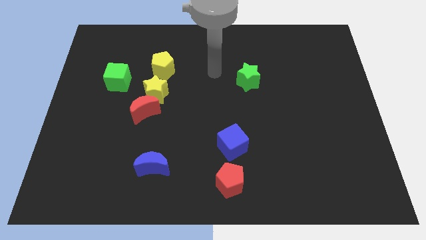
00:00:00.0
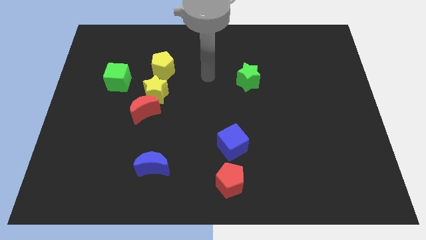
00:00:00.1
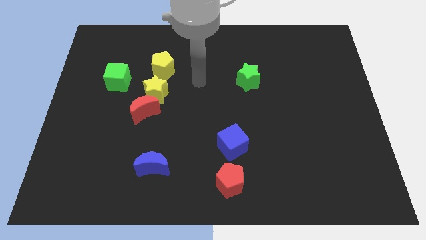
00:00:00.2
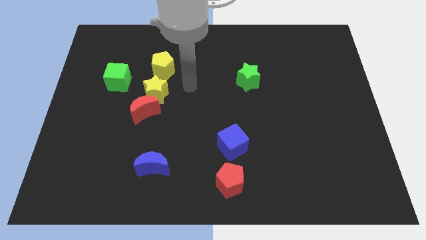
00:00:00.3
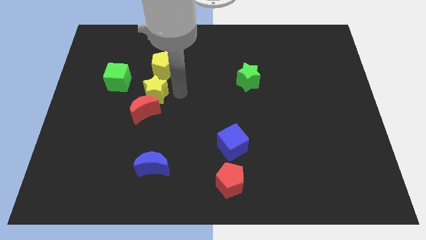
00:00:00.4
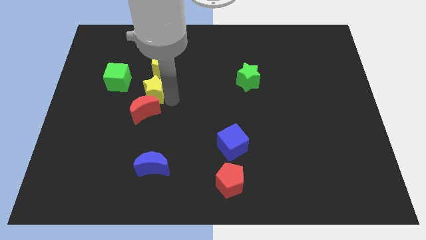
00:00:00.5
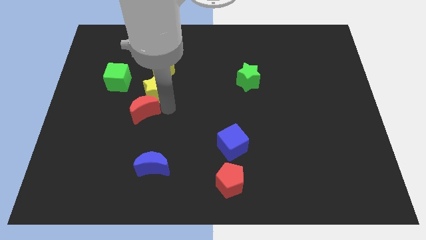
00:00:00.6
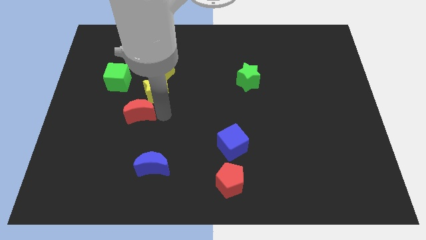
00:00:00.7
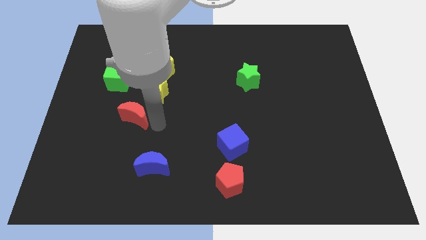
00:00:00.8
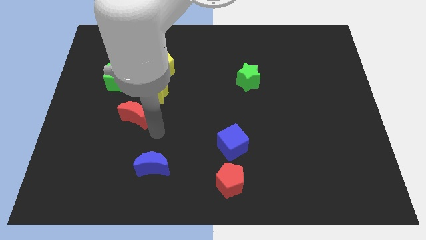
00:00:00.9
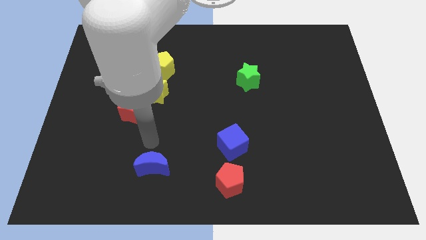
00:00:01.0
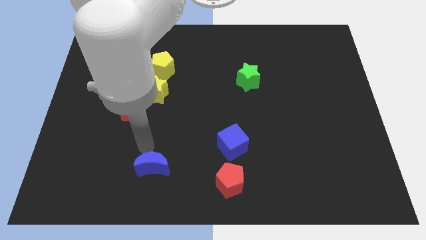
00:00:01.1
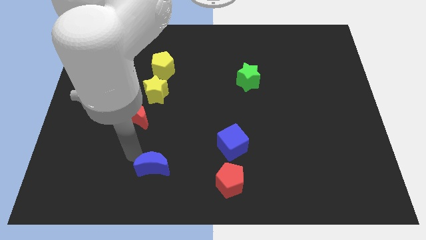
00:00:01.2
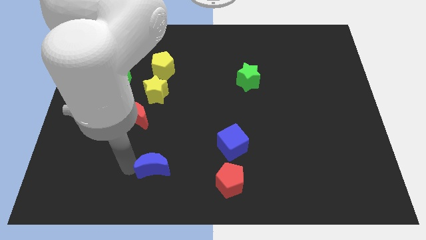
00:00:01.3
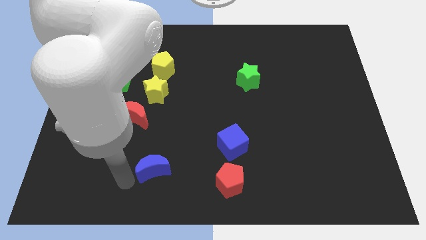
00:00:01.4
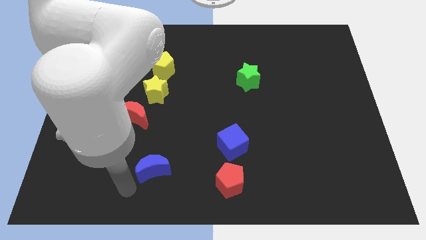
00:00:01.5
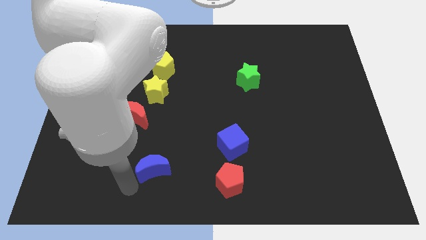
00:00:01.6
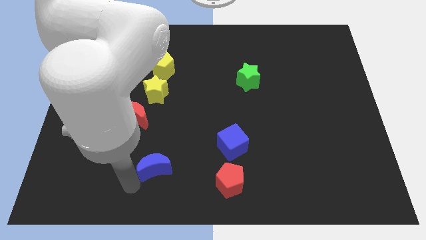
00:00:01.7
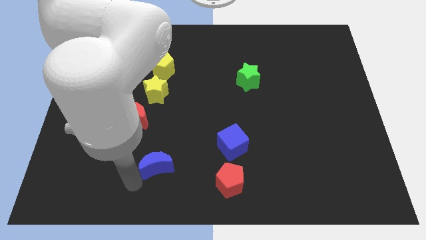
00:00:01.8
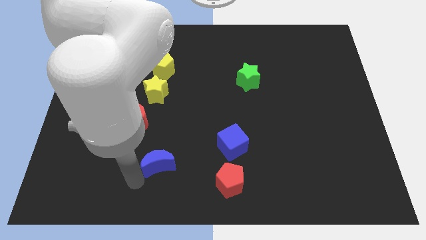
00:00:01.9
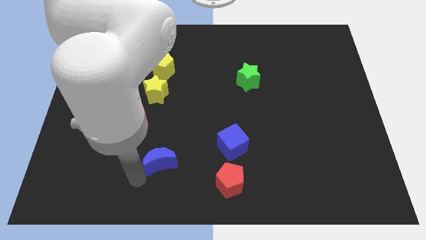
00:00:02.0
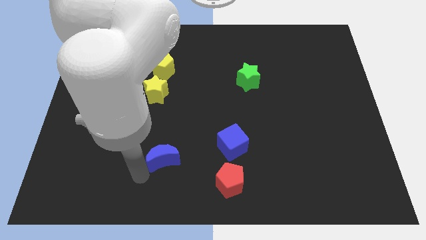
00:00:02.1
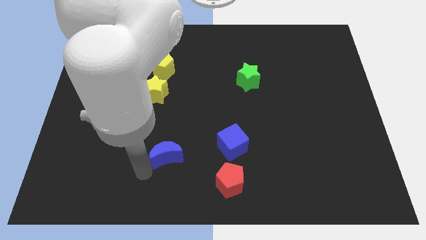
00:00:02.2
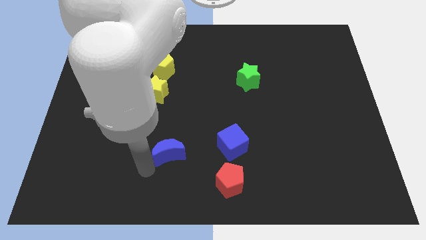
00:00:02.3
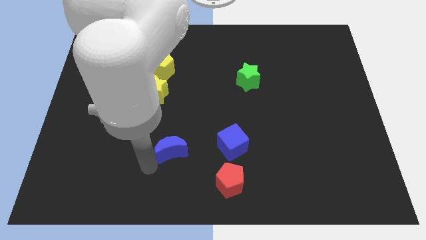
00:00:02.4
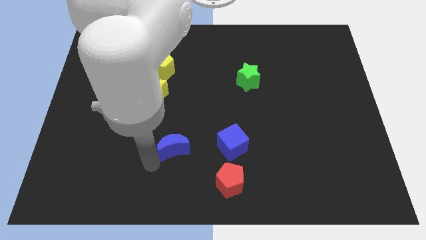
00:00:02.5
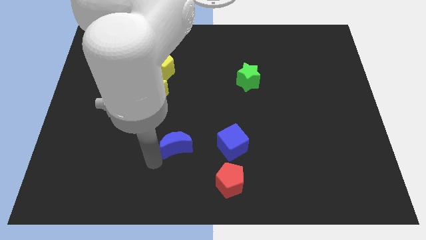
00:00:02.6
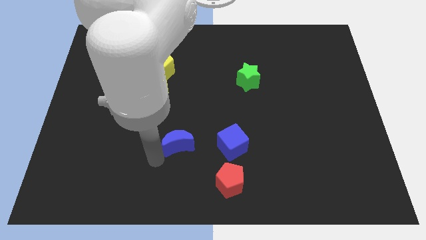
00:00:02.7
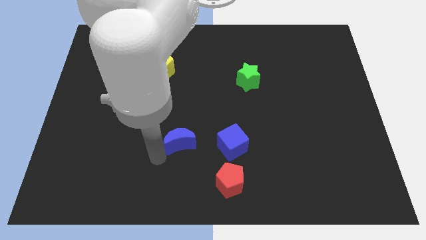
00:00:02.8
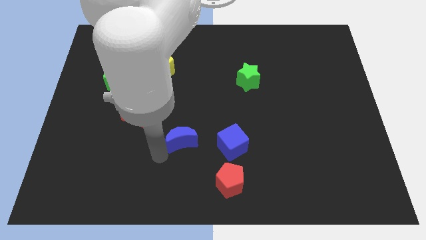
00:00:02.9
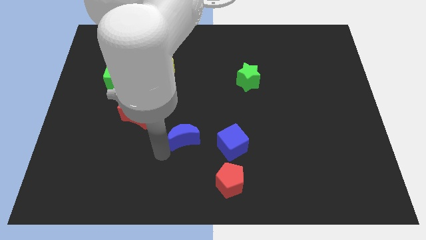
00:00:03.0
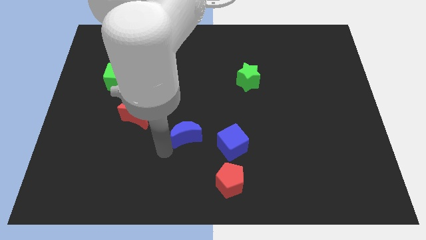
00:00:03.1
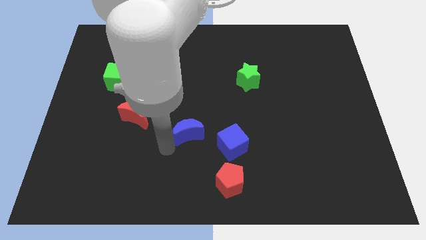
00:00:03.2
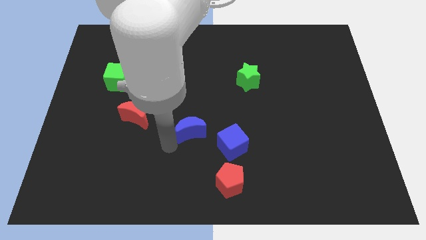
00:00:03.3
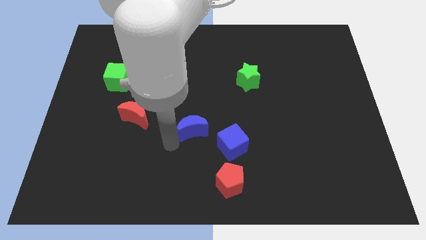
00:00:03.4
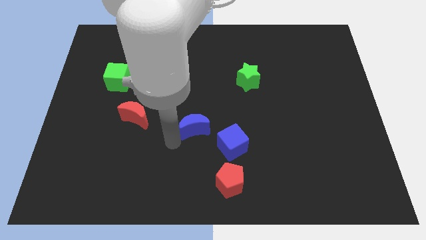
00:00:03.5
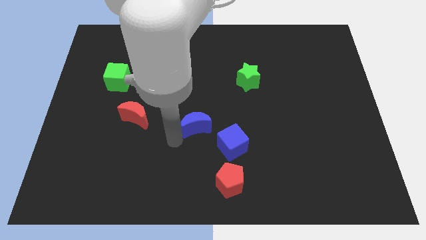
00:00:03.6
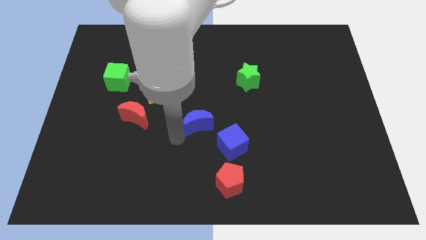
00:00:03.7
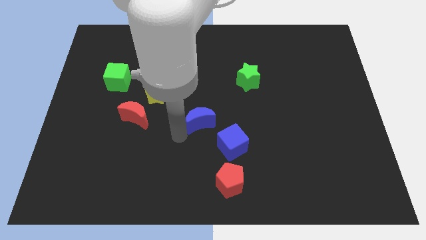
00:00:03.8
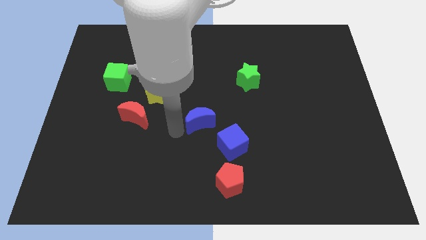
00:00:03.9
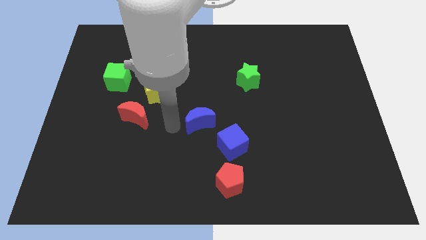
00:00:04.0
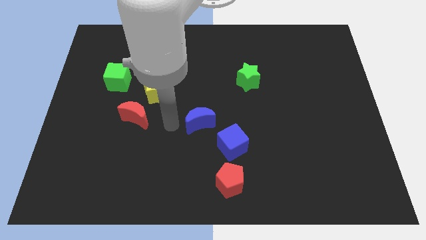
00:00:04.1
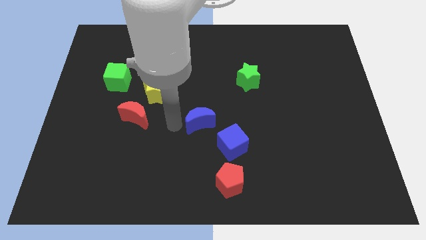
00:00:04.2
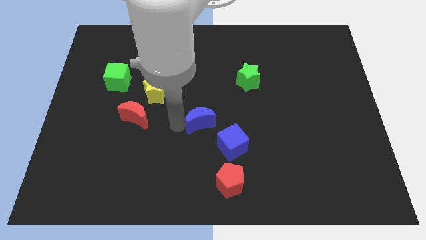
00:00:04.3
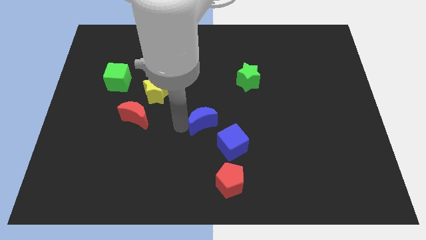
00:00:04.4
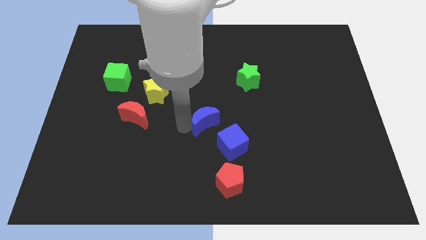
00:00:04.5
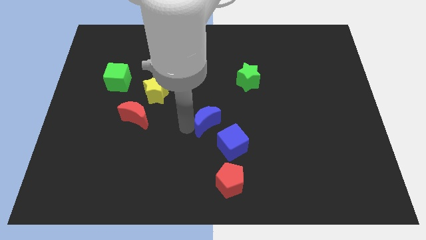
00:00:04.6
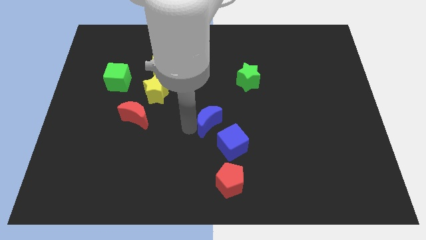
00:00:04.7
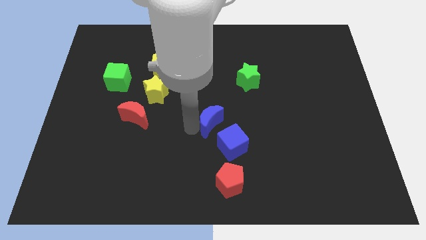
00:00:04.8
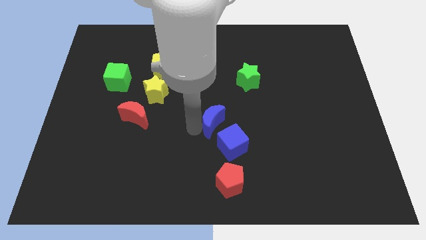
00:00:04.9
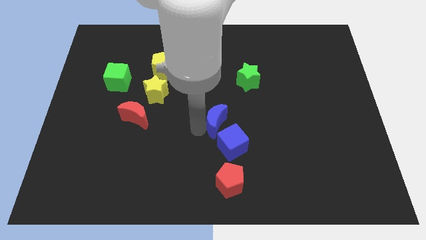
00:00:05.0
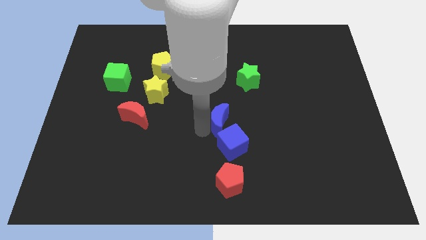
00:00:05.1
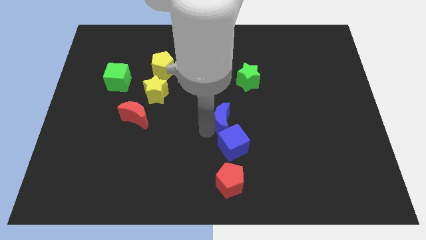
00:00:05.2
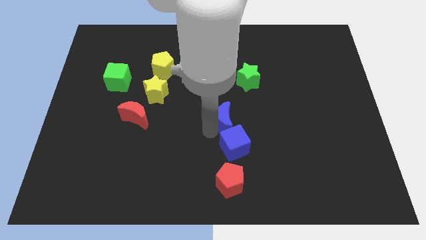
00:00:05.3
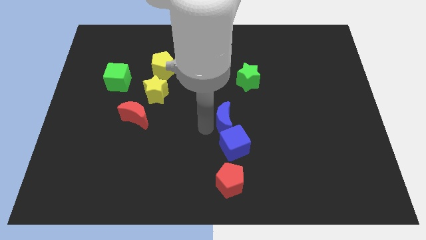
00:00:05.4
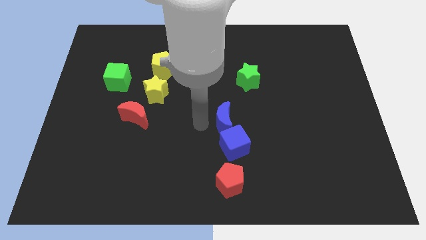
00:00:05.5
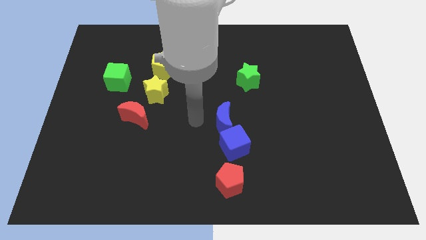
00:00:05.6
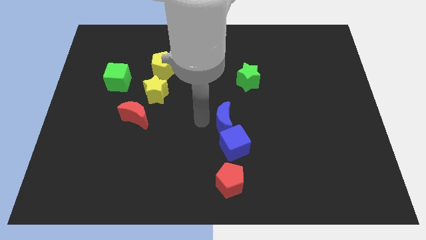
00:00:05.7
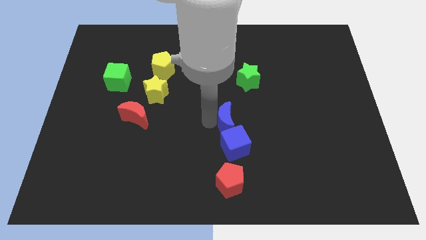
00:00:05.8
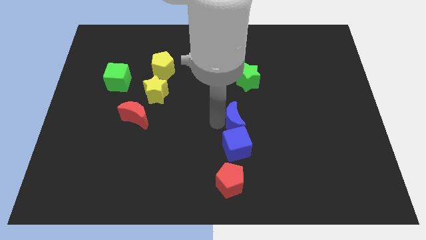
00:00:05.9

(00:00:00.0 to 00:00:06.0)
put the blue moon to the top right of the blue cube

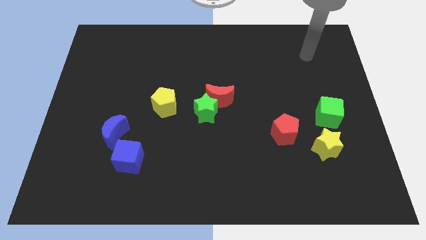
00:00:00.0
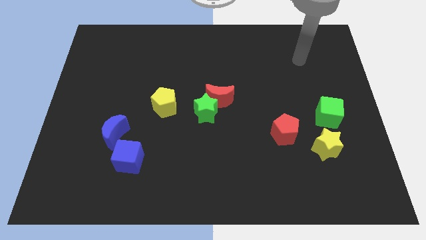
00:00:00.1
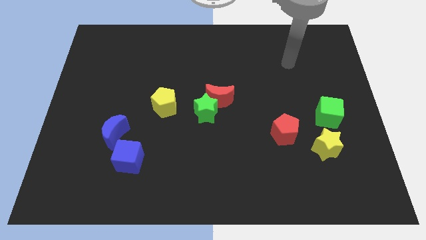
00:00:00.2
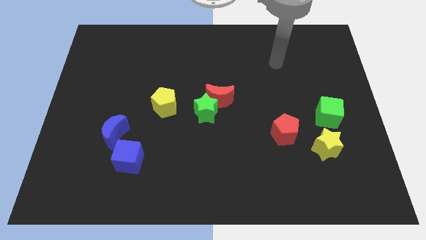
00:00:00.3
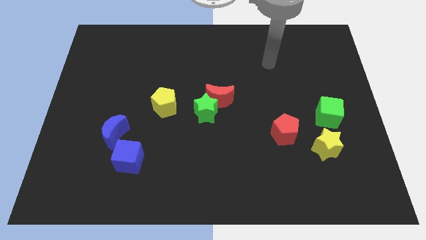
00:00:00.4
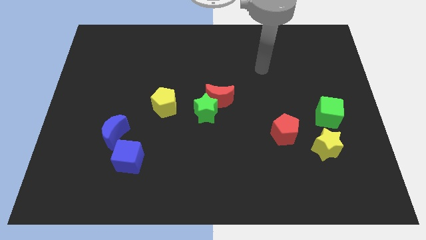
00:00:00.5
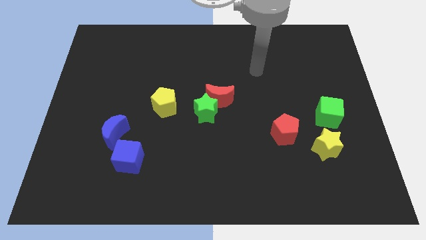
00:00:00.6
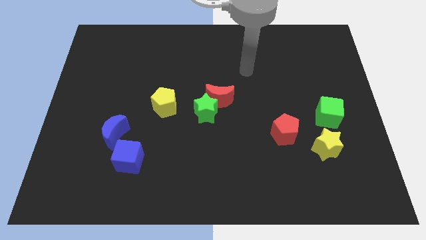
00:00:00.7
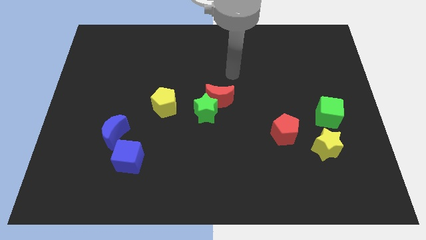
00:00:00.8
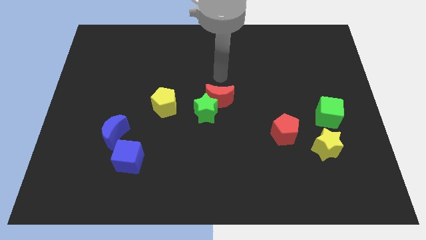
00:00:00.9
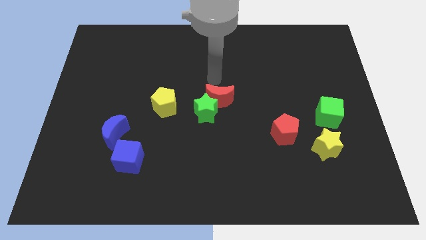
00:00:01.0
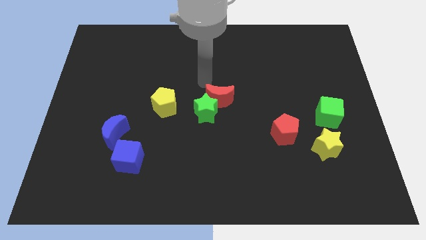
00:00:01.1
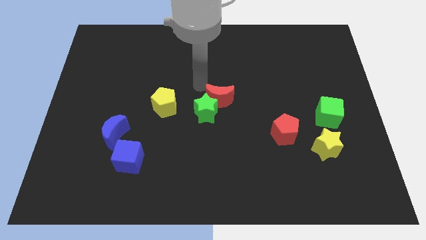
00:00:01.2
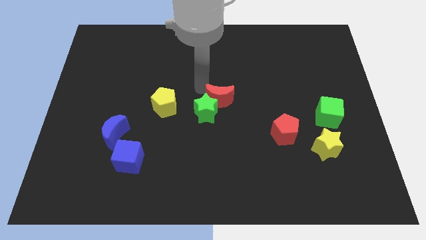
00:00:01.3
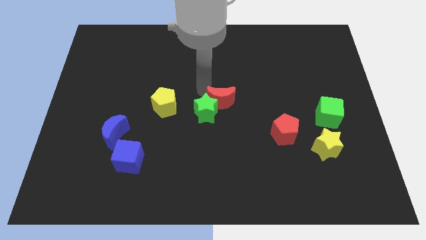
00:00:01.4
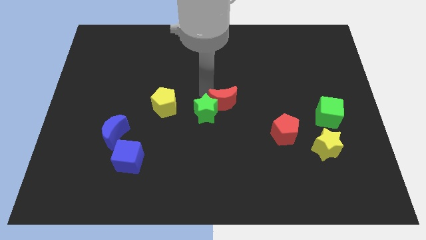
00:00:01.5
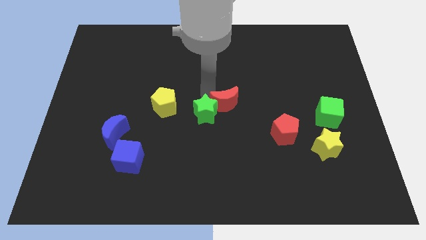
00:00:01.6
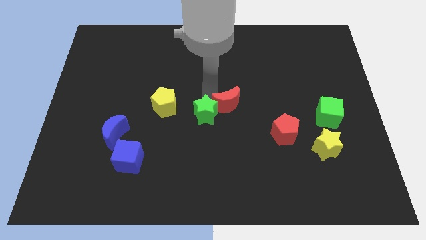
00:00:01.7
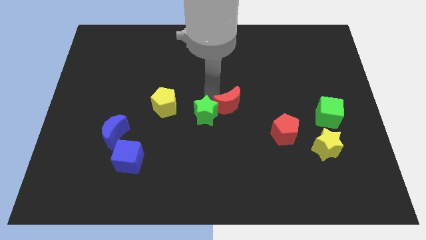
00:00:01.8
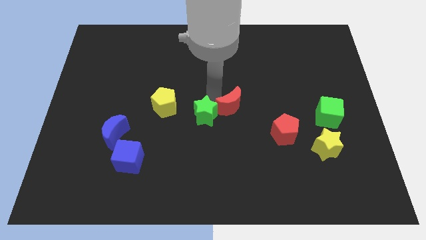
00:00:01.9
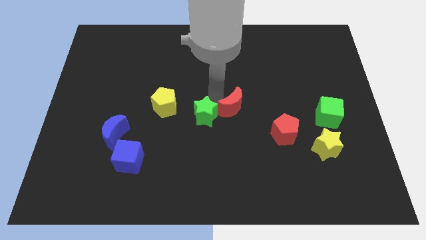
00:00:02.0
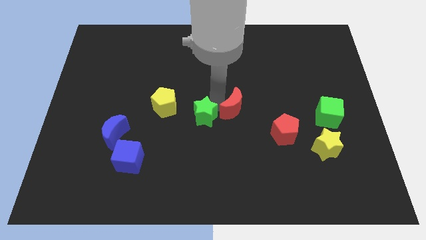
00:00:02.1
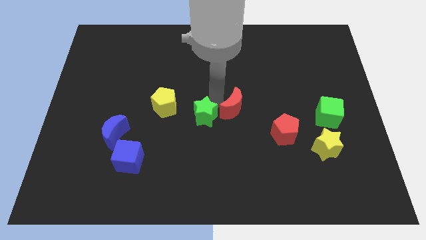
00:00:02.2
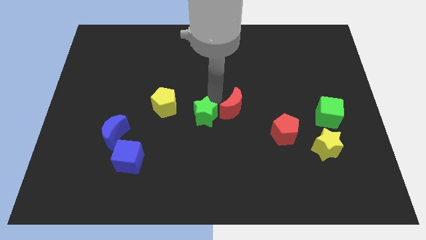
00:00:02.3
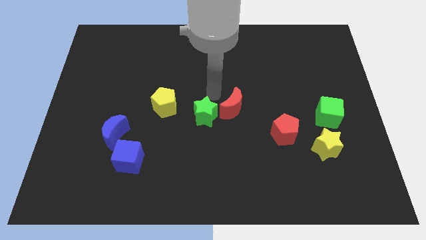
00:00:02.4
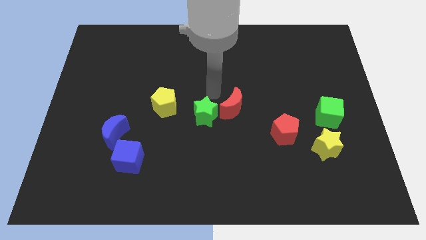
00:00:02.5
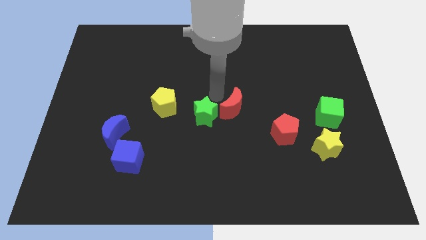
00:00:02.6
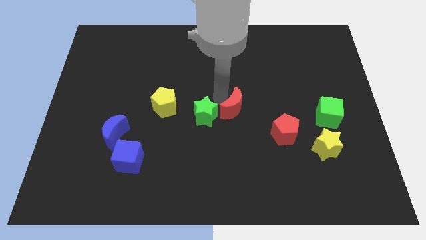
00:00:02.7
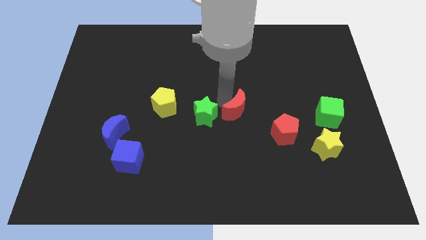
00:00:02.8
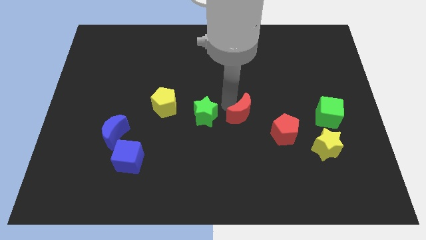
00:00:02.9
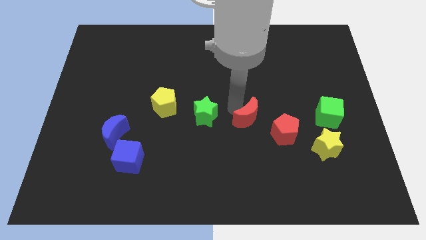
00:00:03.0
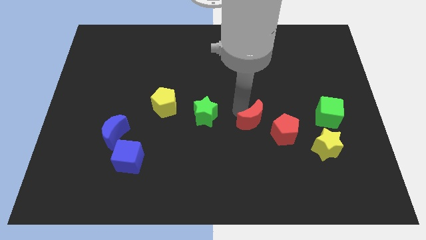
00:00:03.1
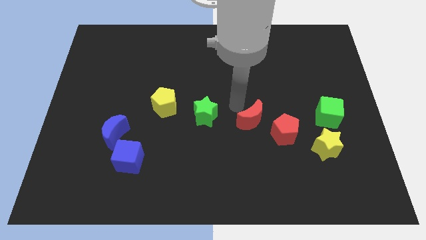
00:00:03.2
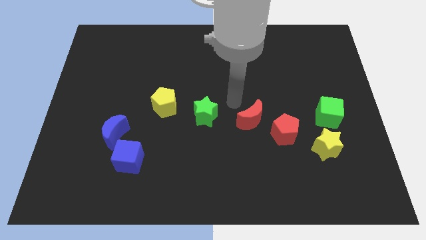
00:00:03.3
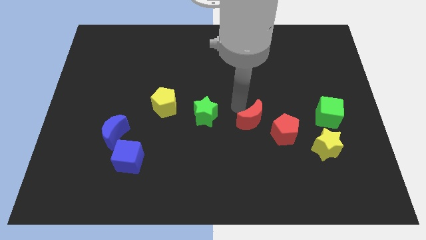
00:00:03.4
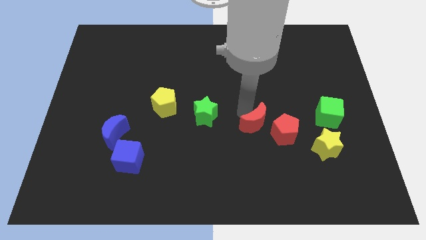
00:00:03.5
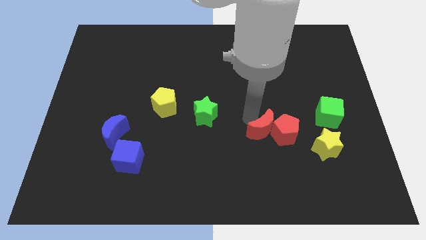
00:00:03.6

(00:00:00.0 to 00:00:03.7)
move the red moon to the left side of the yellow star
